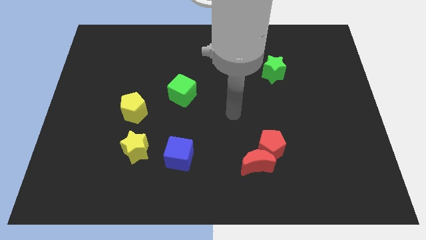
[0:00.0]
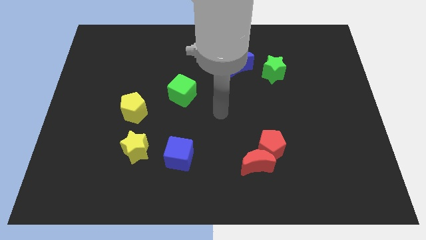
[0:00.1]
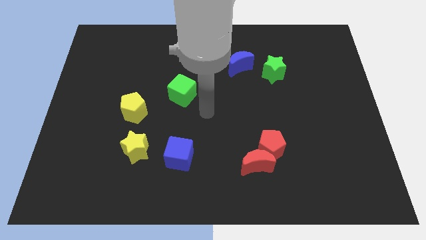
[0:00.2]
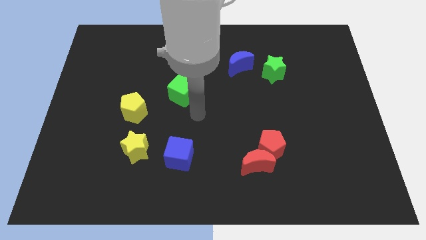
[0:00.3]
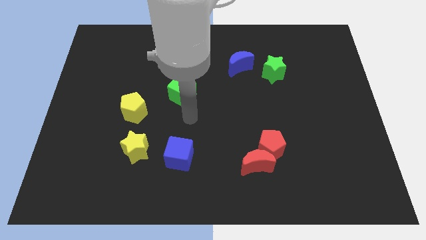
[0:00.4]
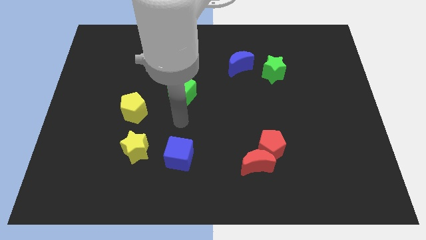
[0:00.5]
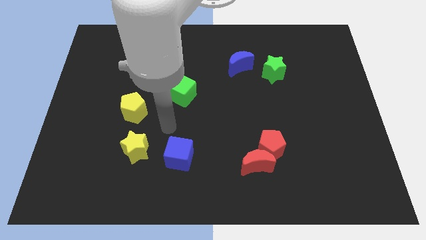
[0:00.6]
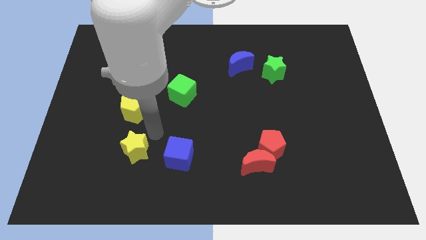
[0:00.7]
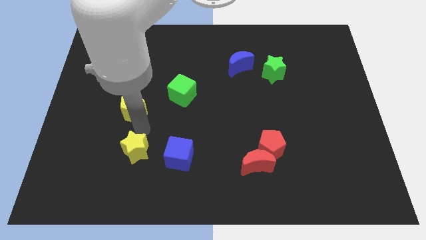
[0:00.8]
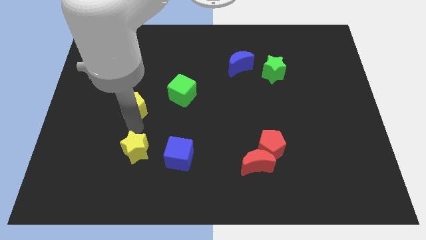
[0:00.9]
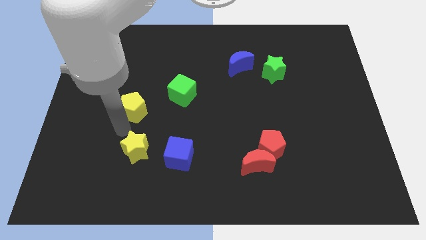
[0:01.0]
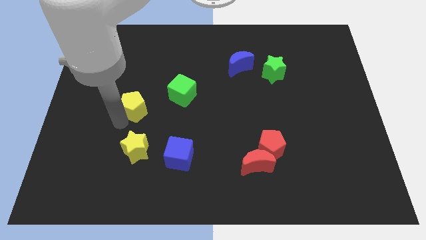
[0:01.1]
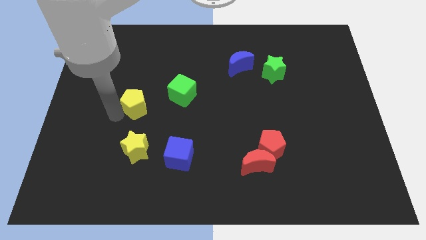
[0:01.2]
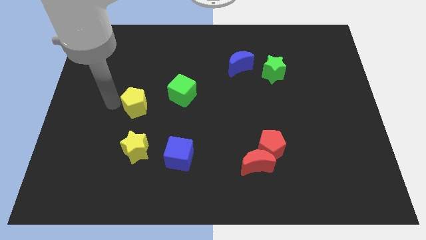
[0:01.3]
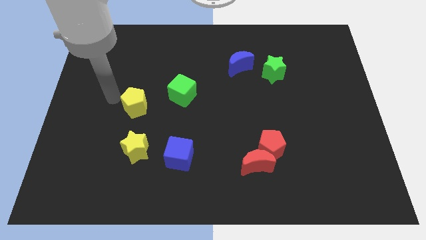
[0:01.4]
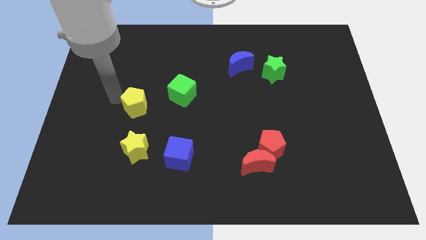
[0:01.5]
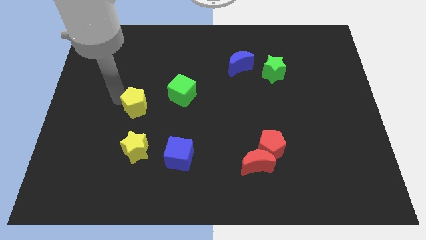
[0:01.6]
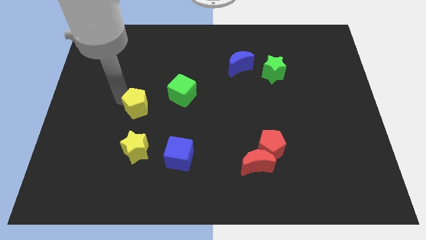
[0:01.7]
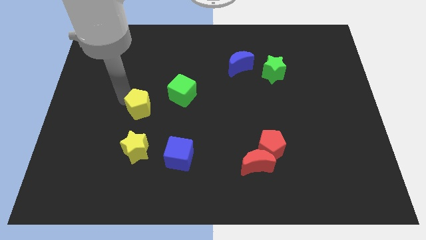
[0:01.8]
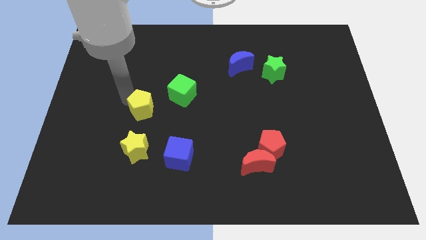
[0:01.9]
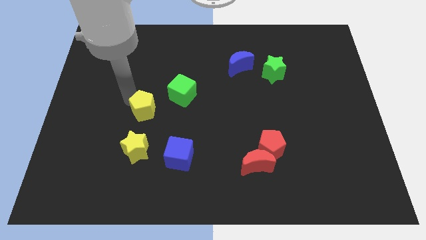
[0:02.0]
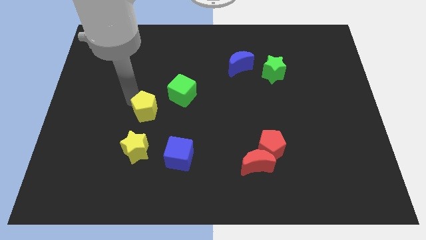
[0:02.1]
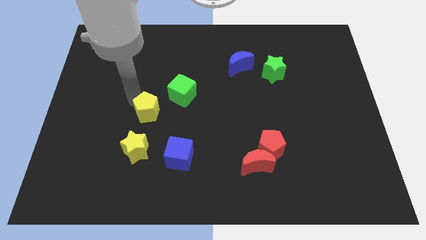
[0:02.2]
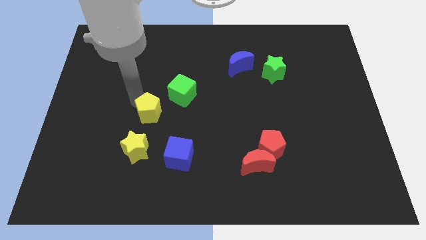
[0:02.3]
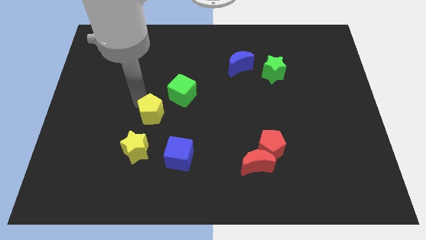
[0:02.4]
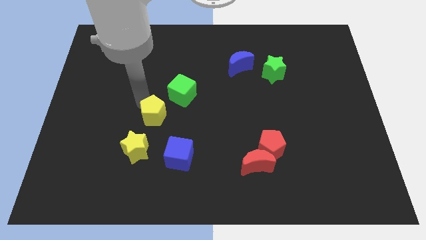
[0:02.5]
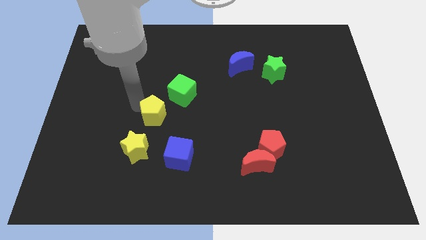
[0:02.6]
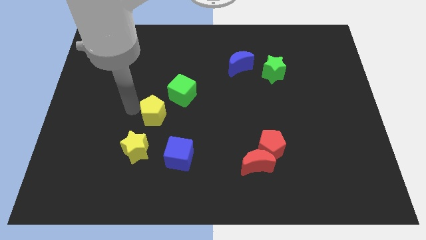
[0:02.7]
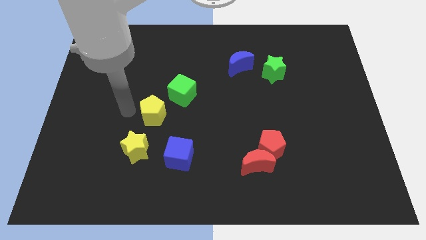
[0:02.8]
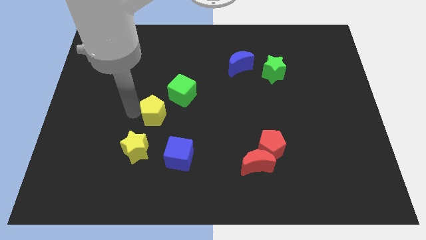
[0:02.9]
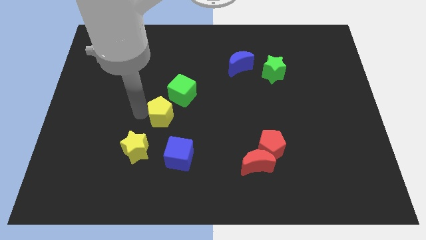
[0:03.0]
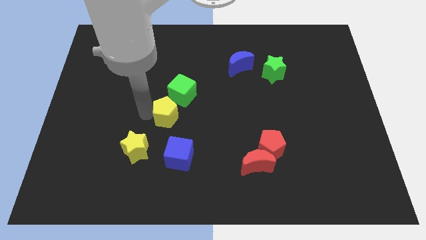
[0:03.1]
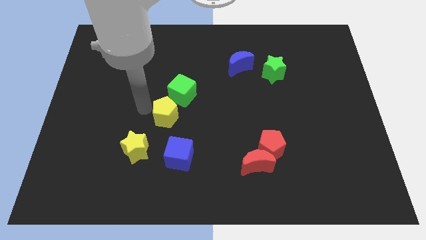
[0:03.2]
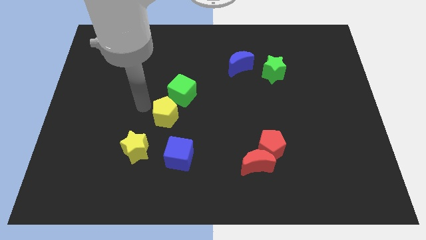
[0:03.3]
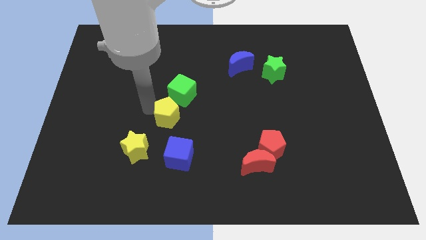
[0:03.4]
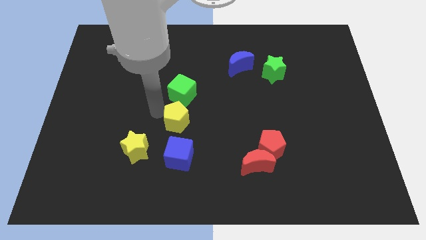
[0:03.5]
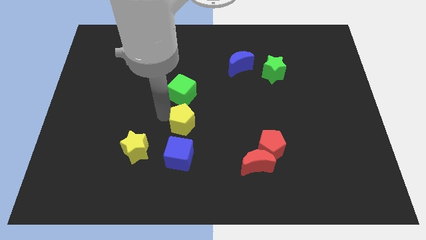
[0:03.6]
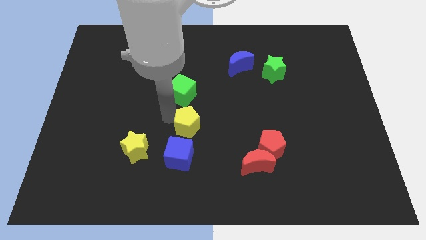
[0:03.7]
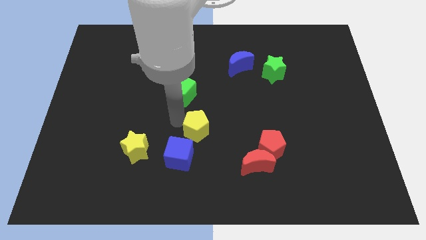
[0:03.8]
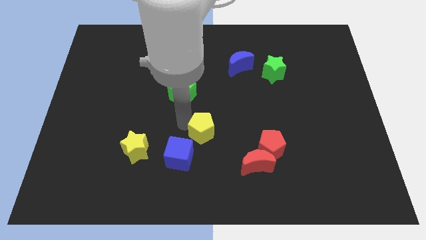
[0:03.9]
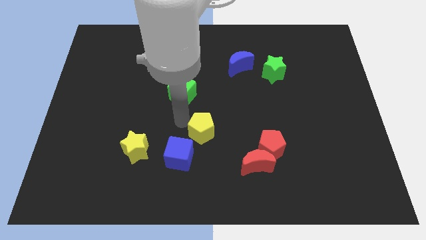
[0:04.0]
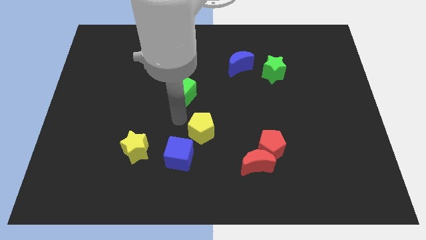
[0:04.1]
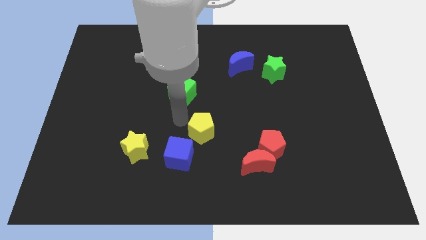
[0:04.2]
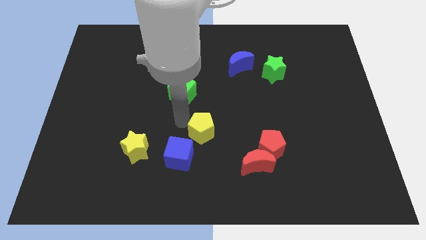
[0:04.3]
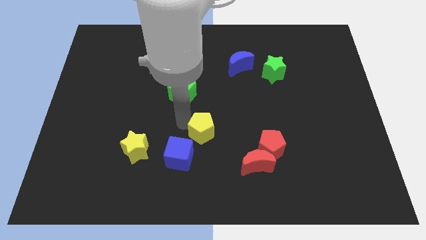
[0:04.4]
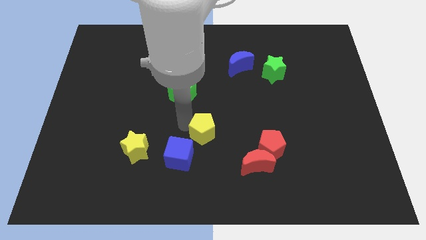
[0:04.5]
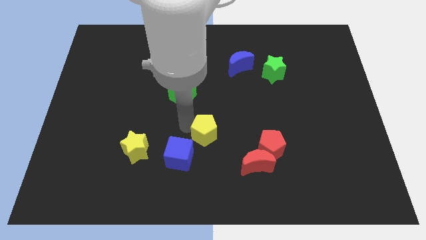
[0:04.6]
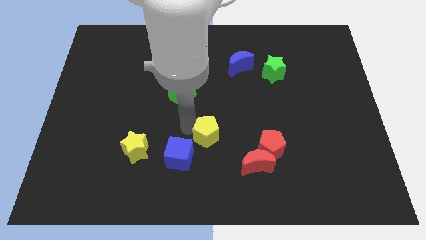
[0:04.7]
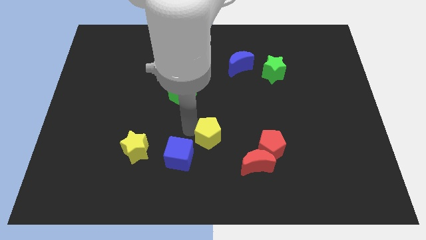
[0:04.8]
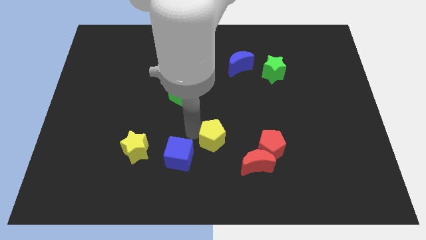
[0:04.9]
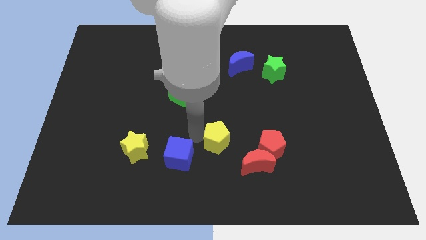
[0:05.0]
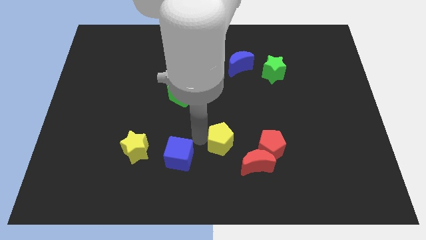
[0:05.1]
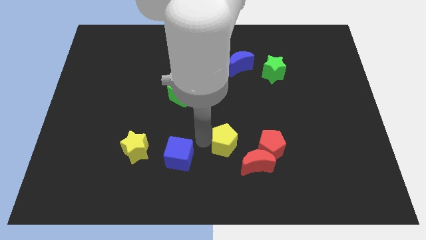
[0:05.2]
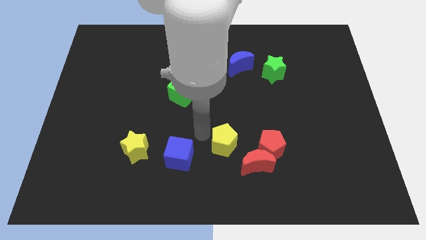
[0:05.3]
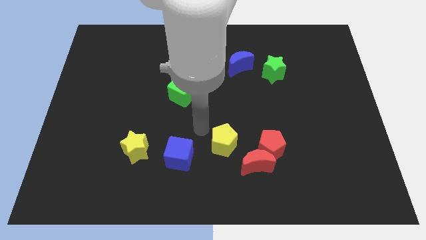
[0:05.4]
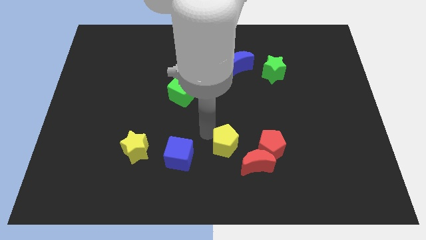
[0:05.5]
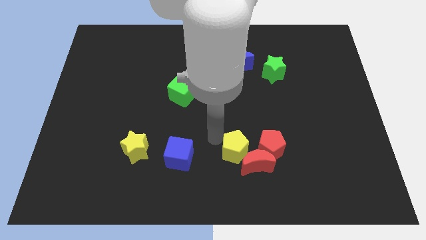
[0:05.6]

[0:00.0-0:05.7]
push the yellow pentagon to the red moon

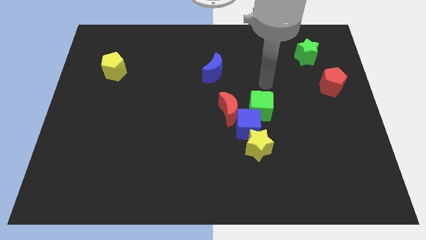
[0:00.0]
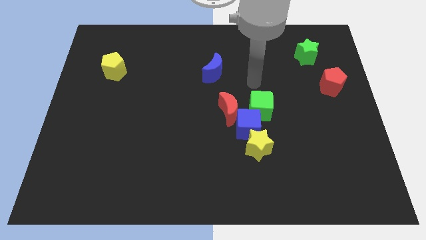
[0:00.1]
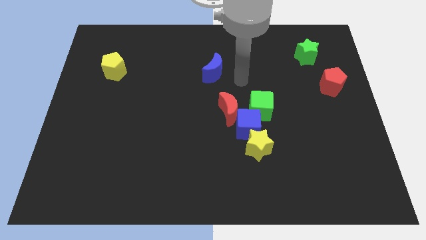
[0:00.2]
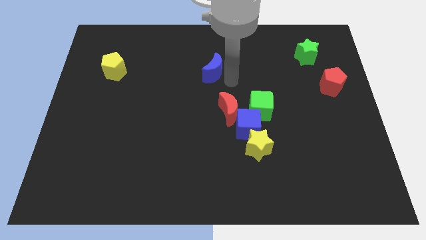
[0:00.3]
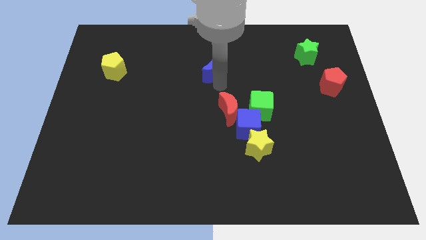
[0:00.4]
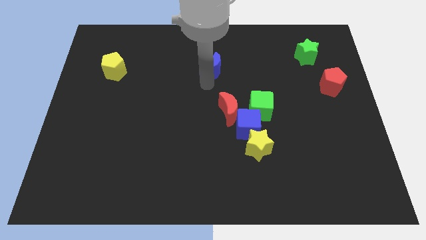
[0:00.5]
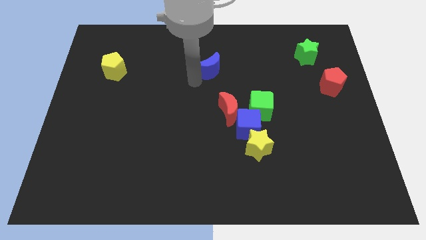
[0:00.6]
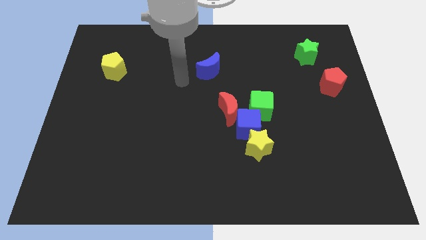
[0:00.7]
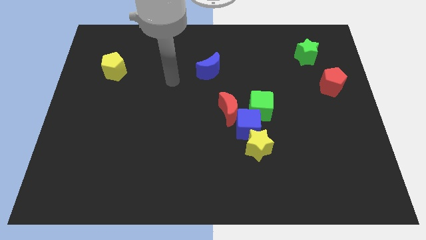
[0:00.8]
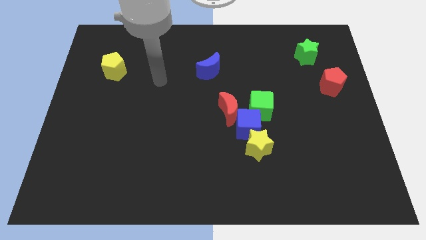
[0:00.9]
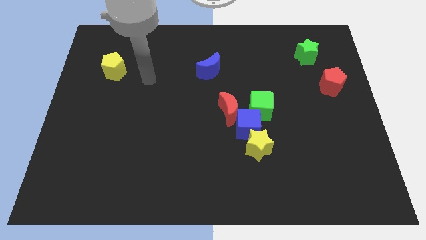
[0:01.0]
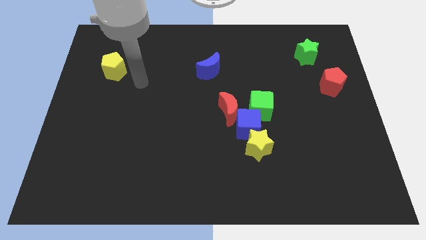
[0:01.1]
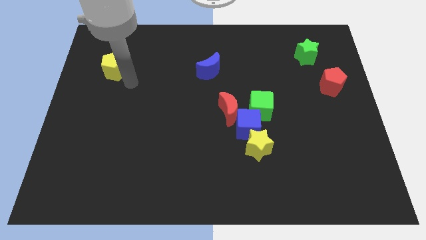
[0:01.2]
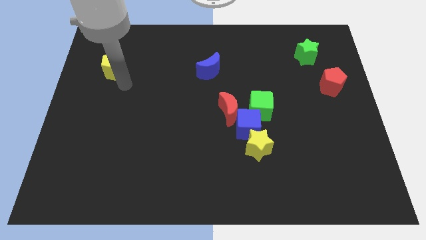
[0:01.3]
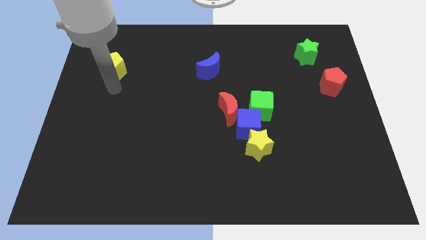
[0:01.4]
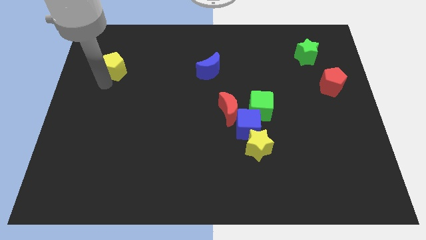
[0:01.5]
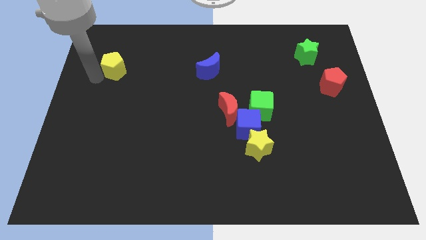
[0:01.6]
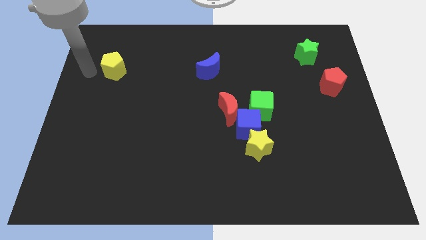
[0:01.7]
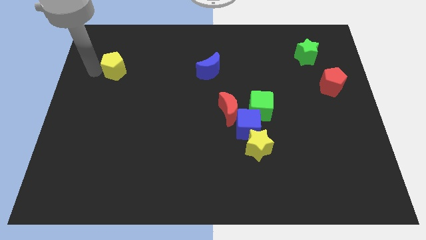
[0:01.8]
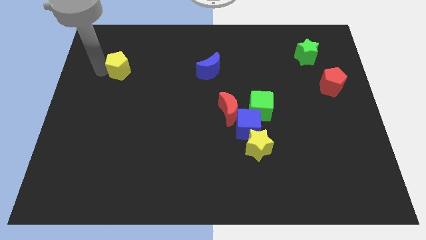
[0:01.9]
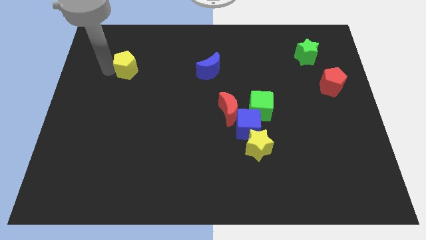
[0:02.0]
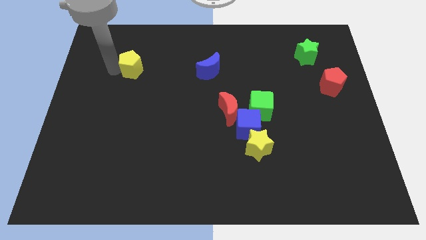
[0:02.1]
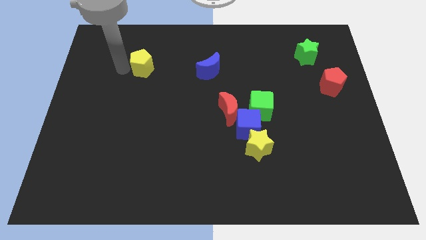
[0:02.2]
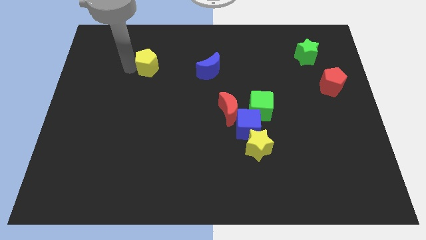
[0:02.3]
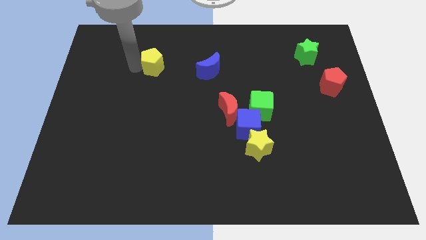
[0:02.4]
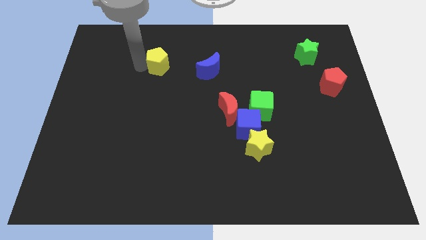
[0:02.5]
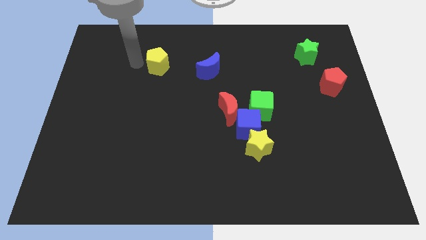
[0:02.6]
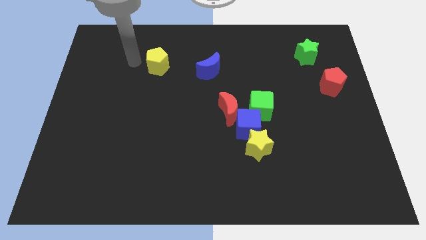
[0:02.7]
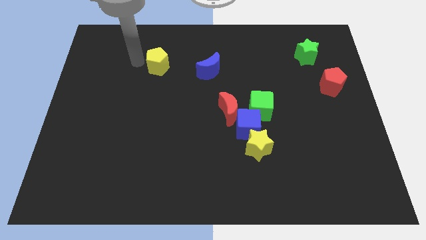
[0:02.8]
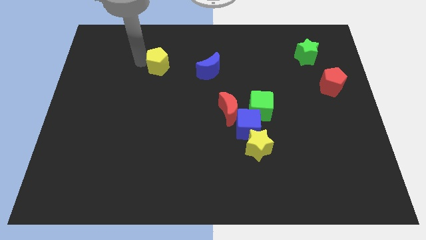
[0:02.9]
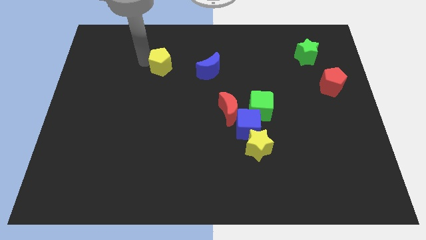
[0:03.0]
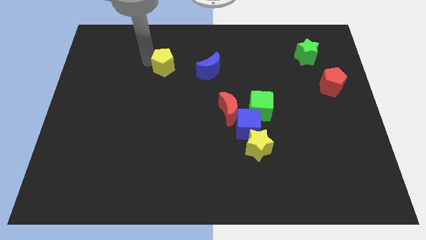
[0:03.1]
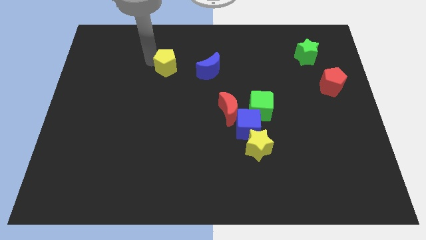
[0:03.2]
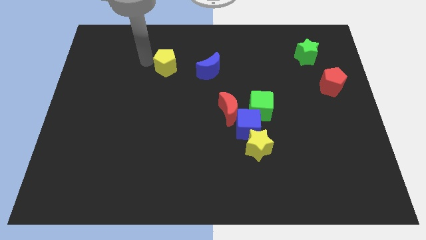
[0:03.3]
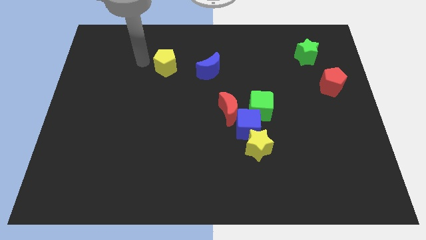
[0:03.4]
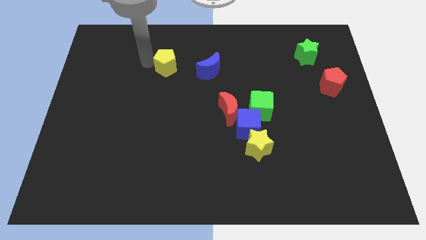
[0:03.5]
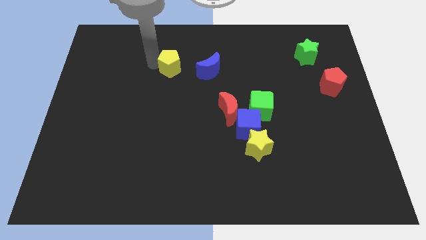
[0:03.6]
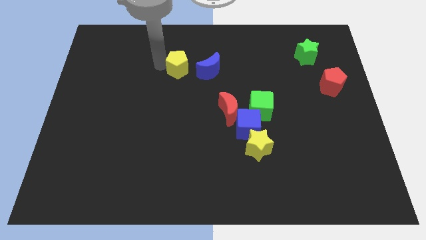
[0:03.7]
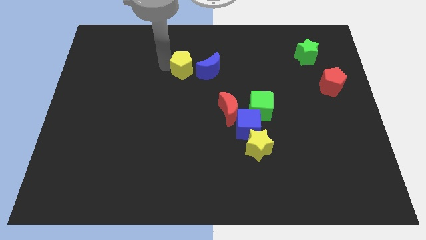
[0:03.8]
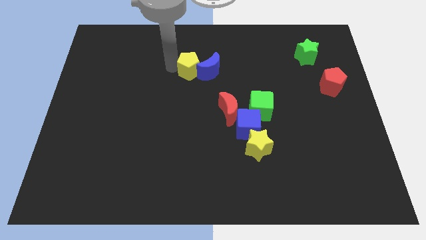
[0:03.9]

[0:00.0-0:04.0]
put the yellow pentagon close to the blue moon
